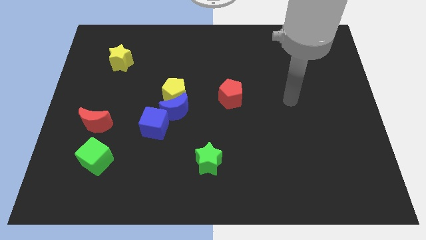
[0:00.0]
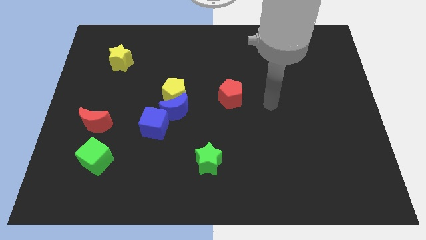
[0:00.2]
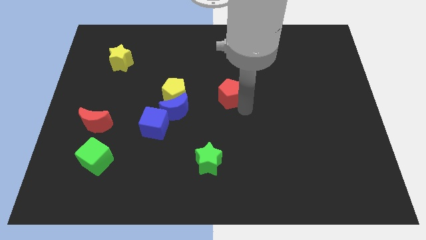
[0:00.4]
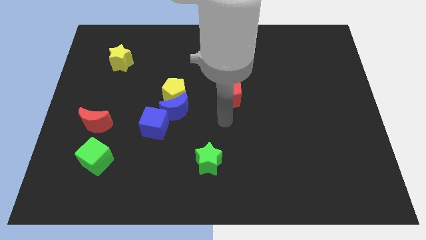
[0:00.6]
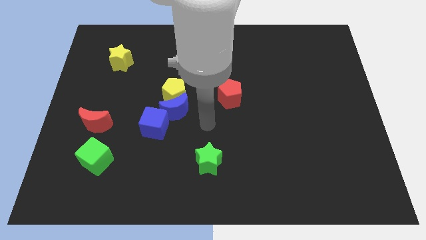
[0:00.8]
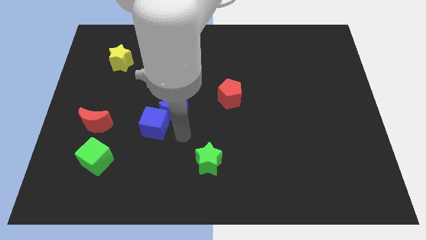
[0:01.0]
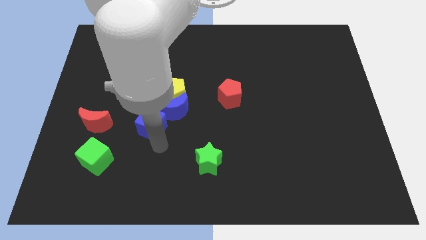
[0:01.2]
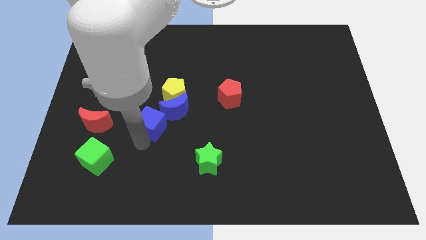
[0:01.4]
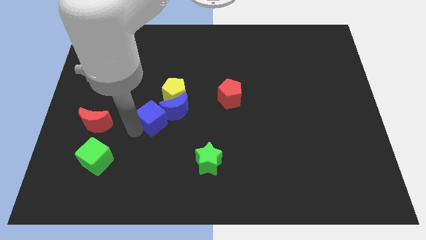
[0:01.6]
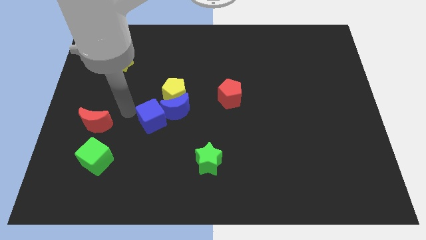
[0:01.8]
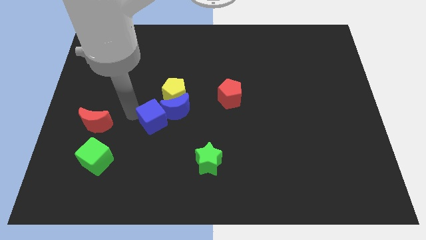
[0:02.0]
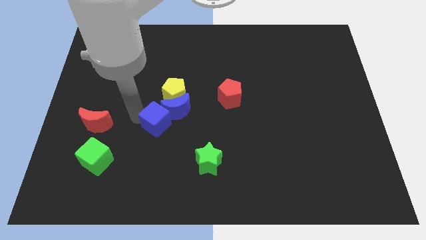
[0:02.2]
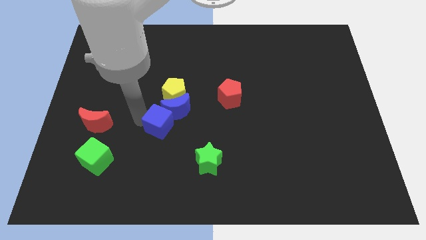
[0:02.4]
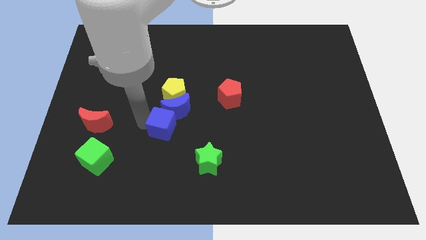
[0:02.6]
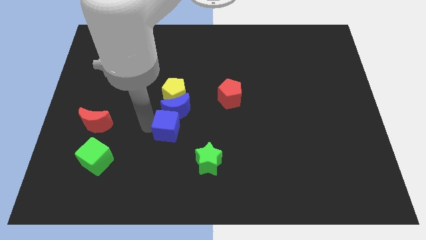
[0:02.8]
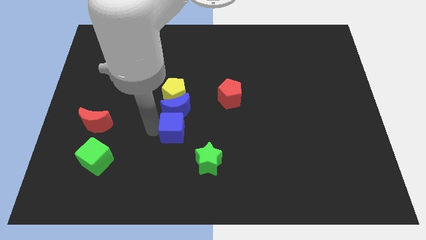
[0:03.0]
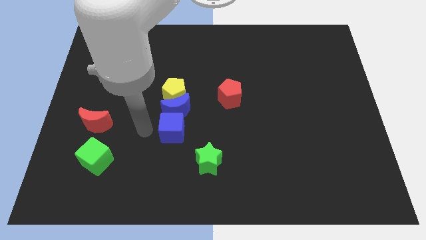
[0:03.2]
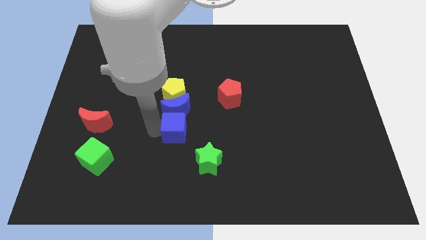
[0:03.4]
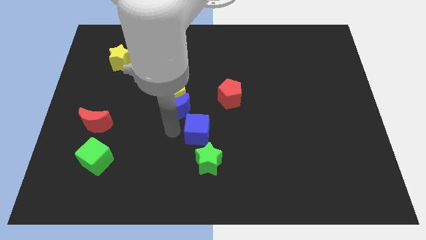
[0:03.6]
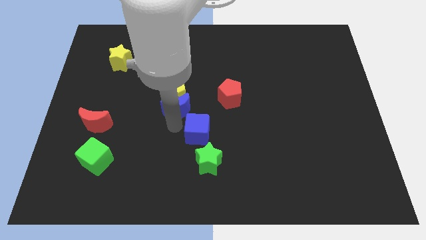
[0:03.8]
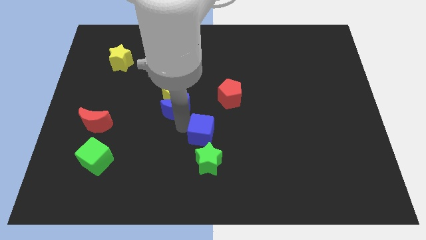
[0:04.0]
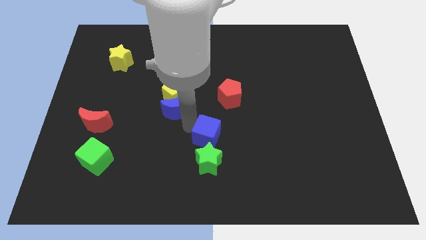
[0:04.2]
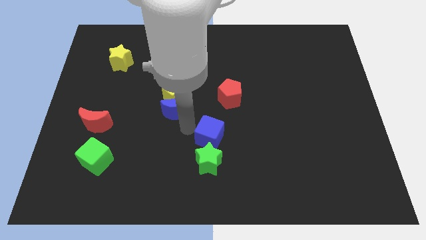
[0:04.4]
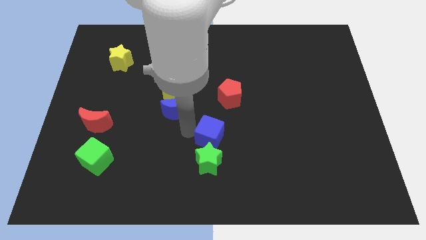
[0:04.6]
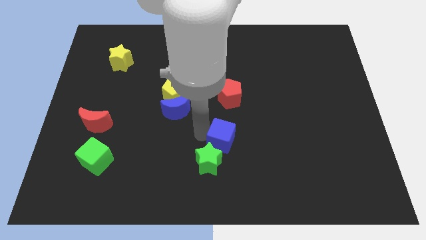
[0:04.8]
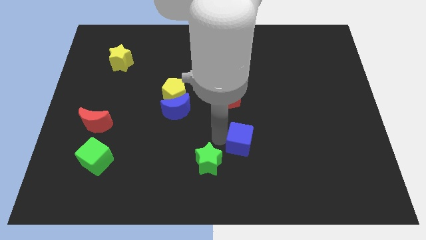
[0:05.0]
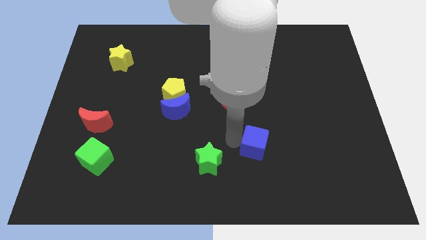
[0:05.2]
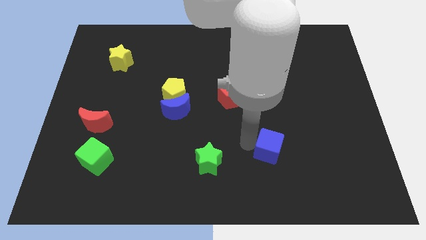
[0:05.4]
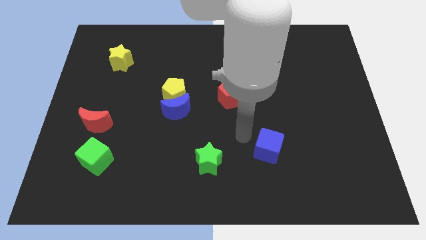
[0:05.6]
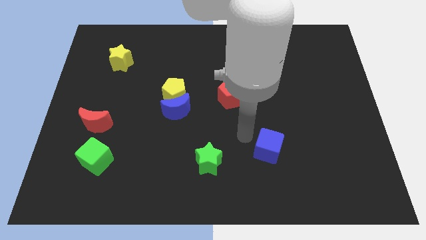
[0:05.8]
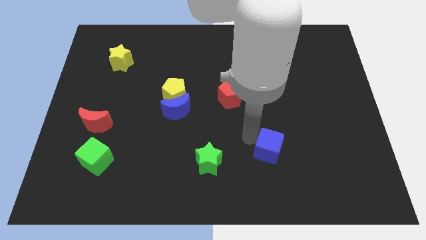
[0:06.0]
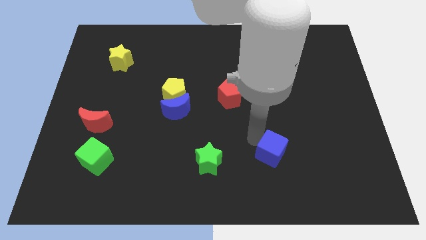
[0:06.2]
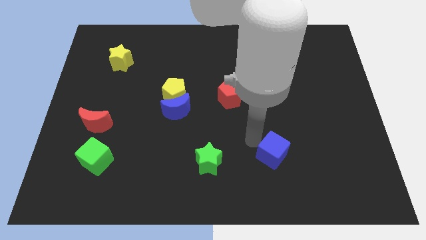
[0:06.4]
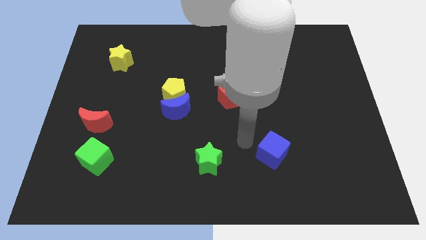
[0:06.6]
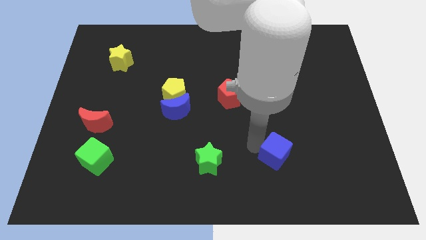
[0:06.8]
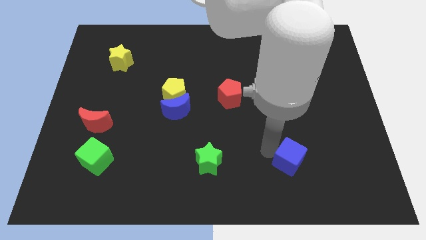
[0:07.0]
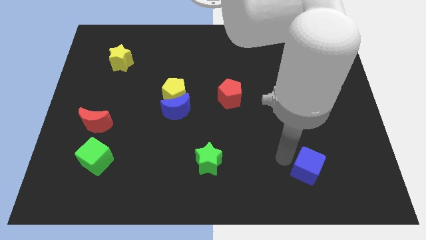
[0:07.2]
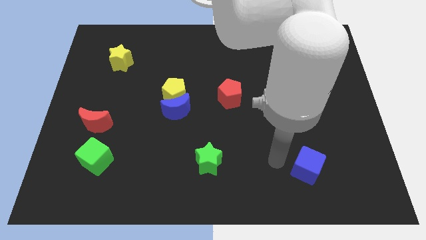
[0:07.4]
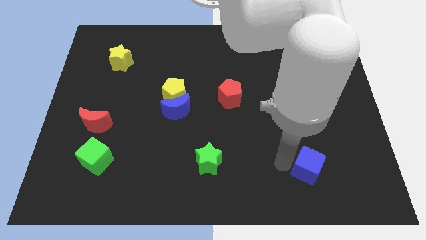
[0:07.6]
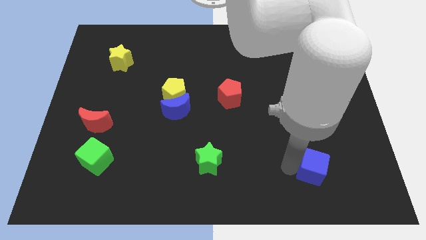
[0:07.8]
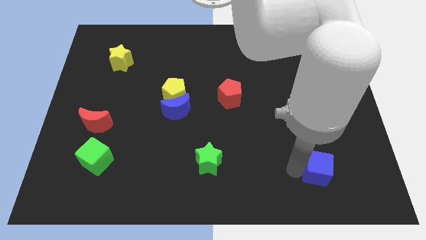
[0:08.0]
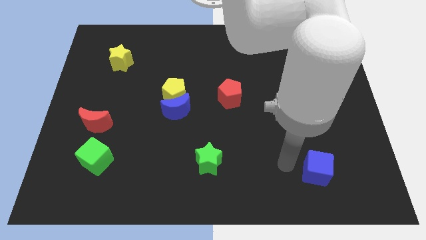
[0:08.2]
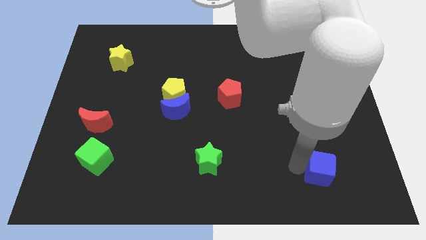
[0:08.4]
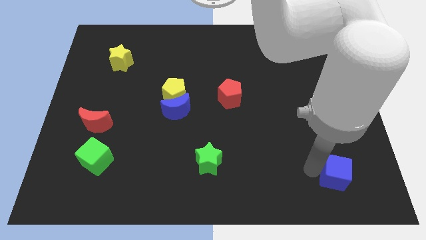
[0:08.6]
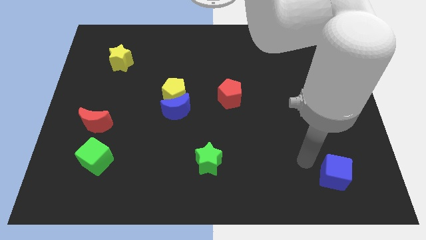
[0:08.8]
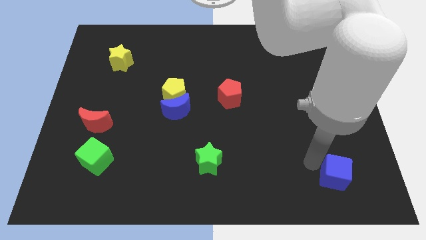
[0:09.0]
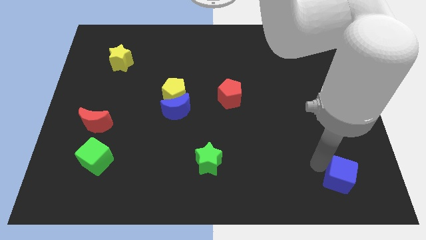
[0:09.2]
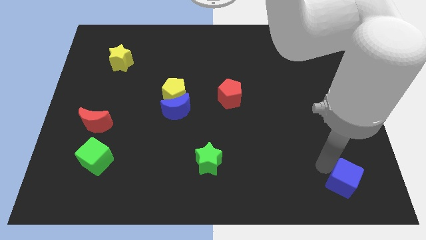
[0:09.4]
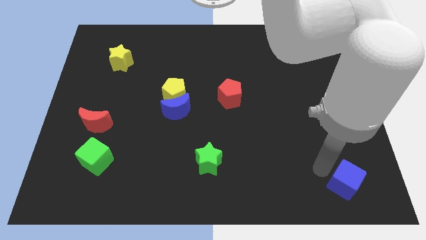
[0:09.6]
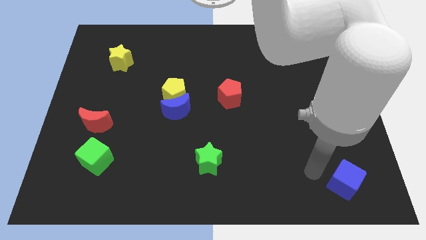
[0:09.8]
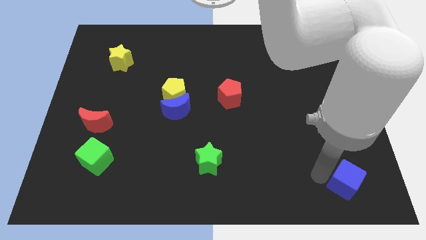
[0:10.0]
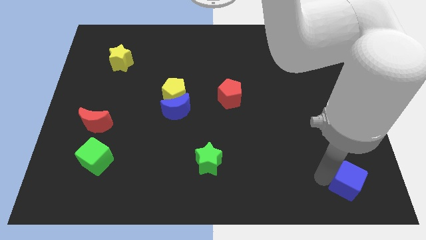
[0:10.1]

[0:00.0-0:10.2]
slide the blue cube to the bottom right corner

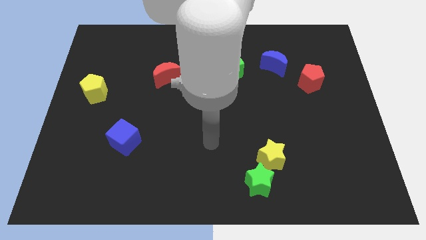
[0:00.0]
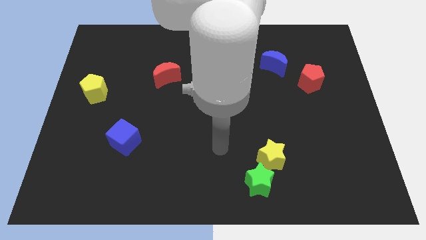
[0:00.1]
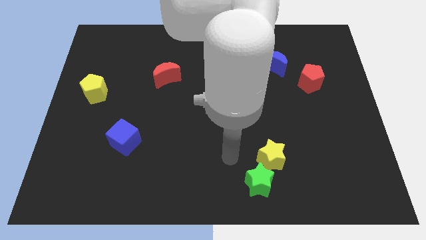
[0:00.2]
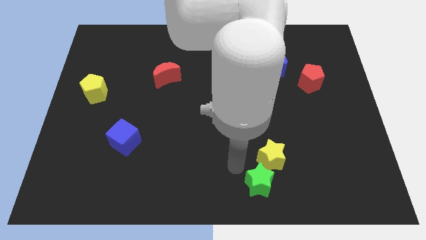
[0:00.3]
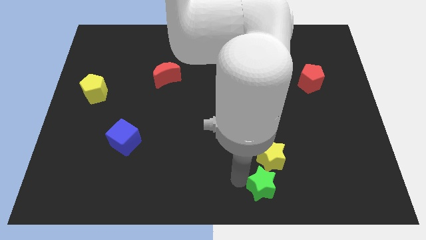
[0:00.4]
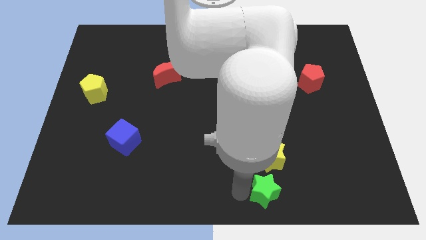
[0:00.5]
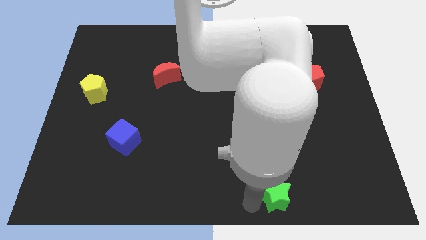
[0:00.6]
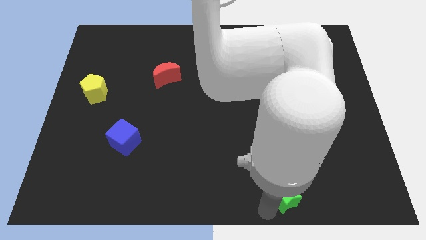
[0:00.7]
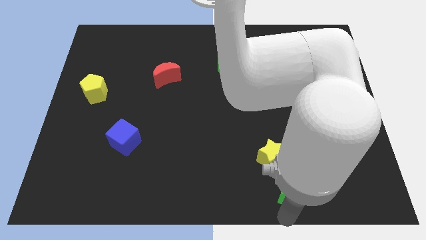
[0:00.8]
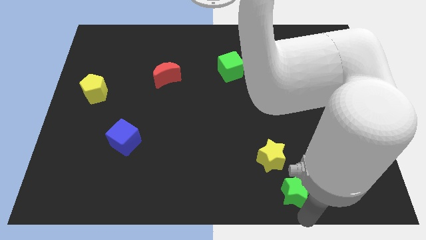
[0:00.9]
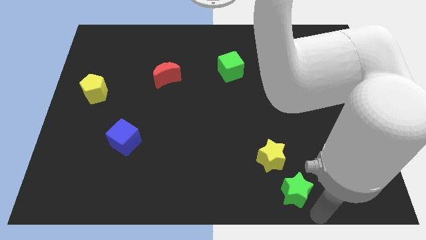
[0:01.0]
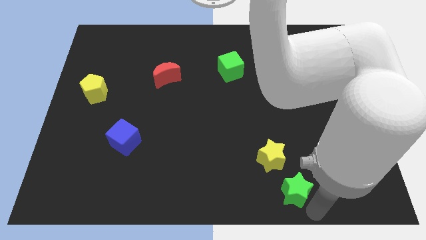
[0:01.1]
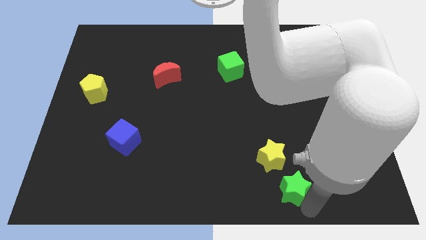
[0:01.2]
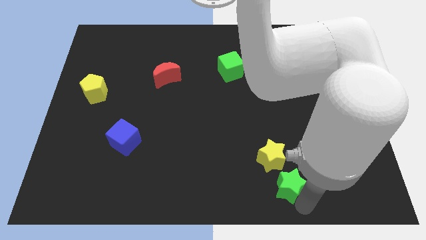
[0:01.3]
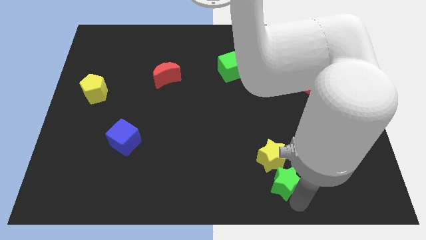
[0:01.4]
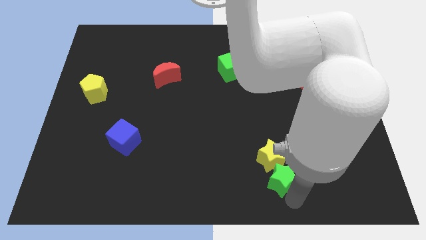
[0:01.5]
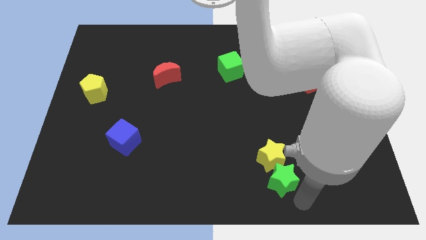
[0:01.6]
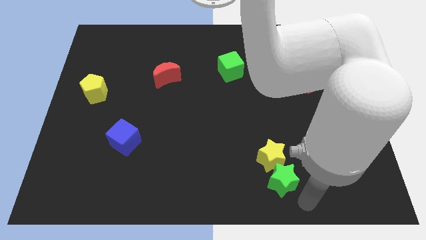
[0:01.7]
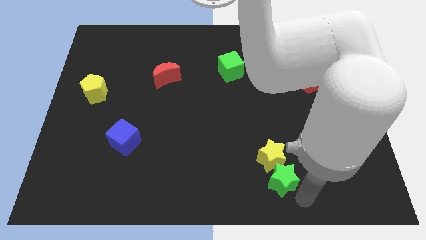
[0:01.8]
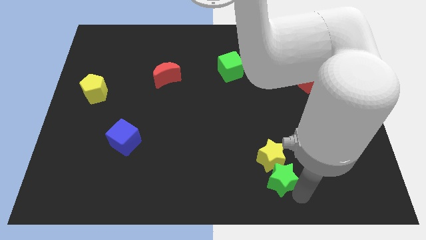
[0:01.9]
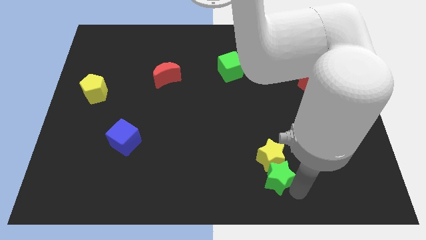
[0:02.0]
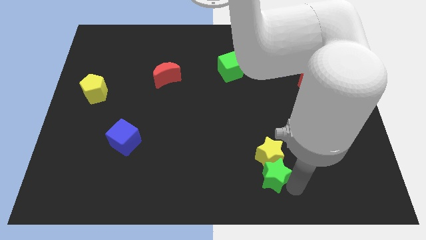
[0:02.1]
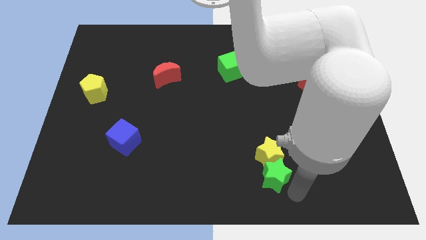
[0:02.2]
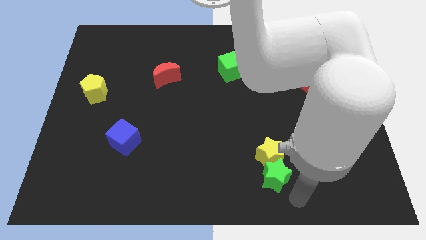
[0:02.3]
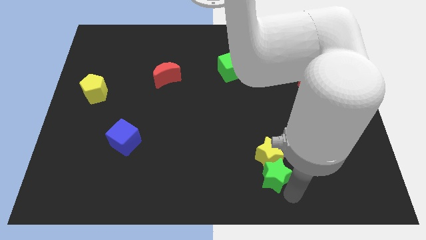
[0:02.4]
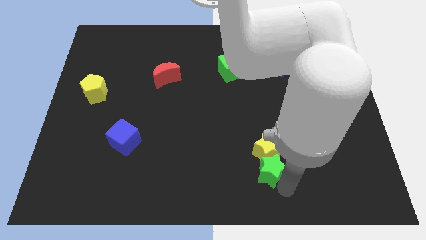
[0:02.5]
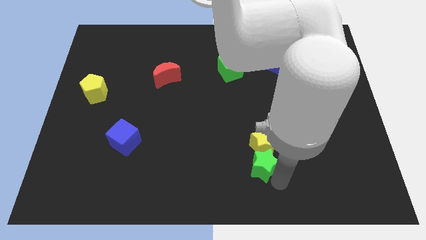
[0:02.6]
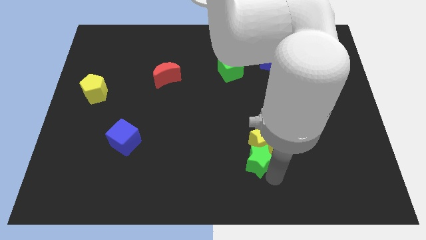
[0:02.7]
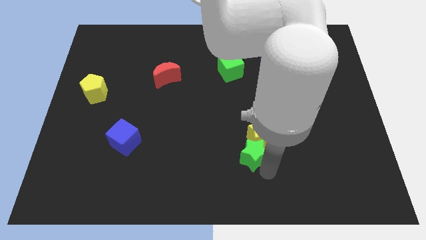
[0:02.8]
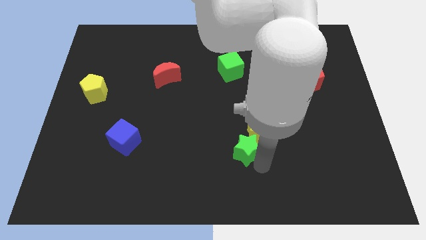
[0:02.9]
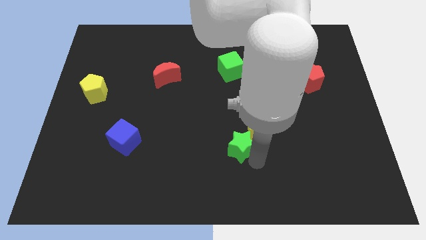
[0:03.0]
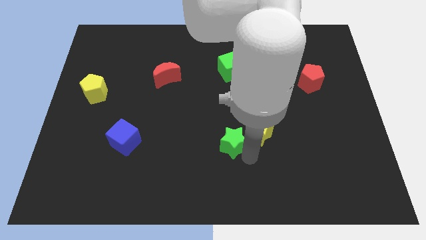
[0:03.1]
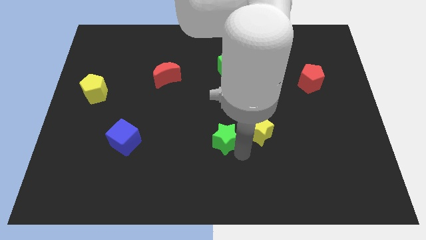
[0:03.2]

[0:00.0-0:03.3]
move the green star to the middle of the board
